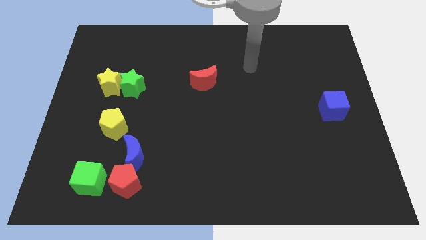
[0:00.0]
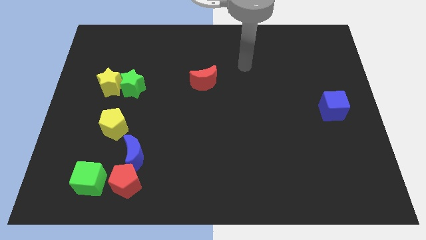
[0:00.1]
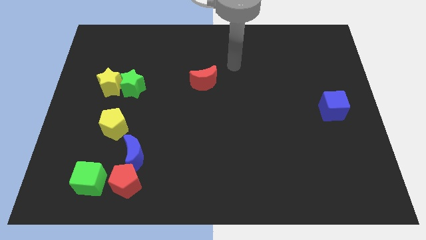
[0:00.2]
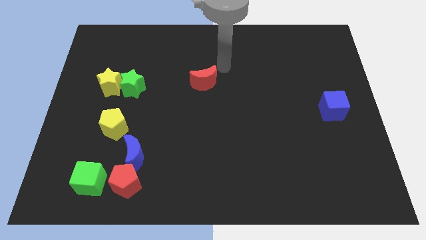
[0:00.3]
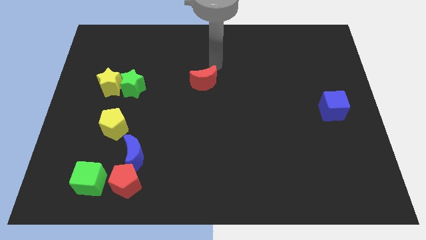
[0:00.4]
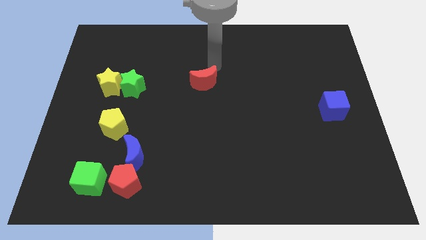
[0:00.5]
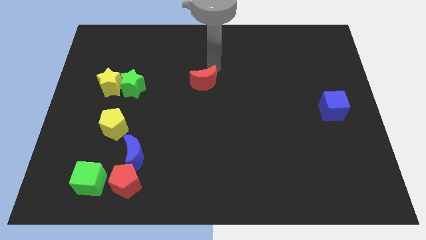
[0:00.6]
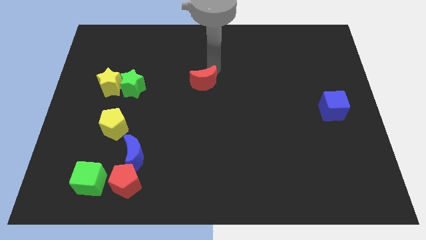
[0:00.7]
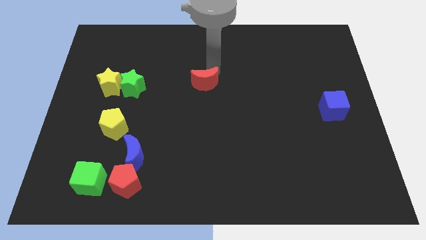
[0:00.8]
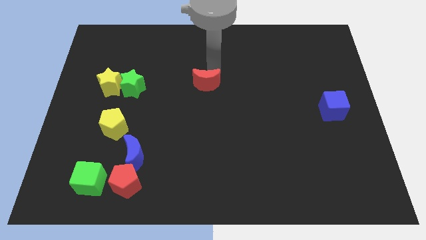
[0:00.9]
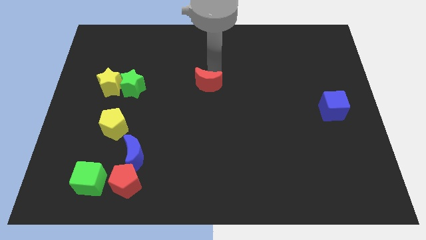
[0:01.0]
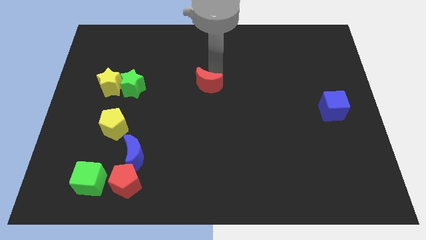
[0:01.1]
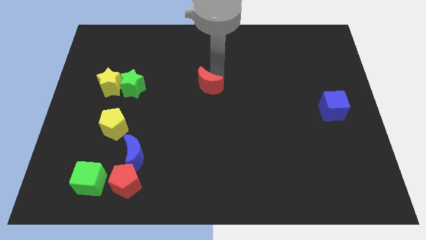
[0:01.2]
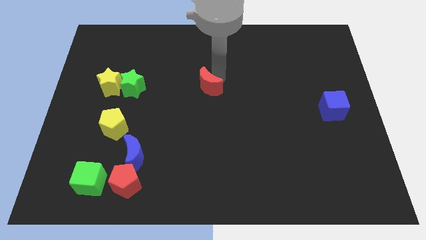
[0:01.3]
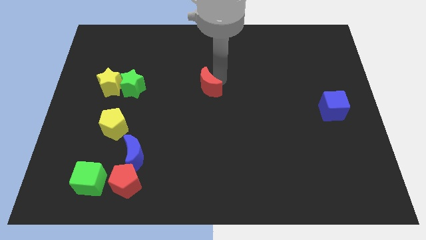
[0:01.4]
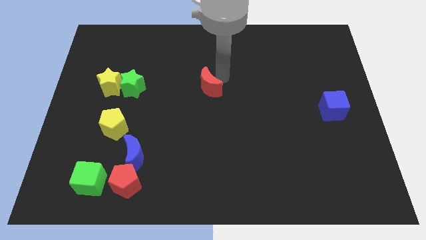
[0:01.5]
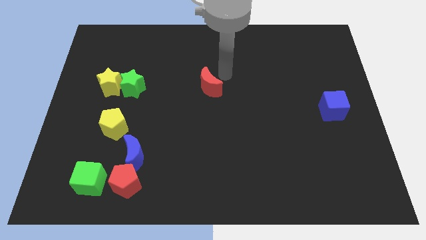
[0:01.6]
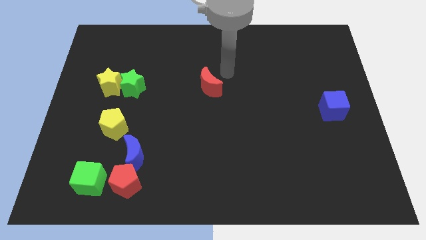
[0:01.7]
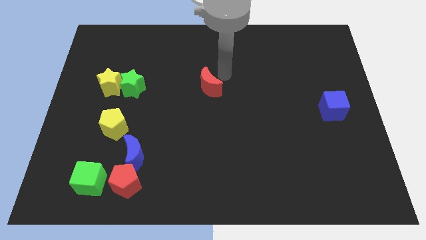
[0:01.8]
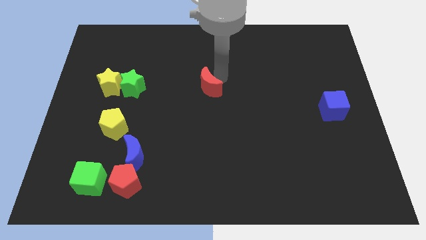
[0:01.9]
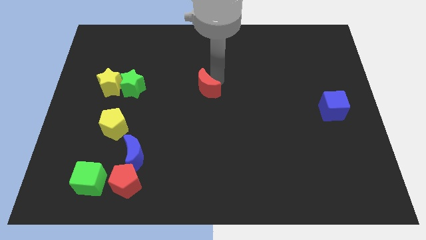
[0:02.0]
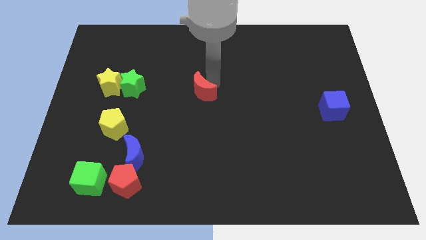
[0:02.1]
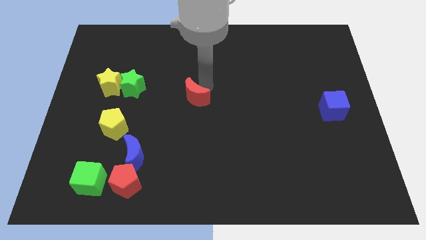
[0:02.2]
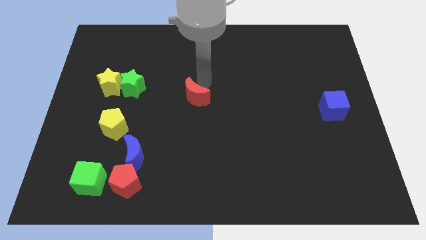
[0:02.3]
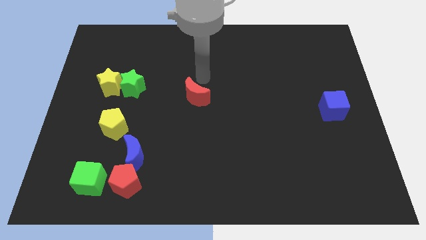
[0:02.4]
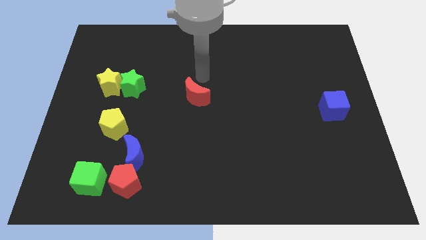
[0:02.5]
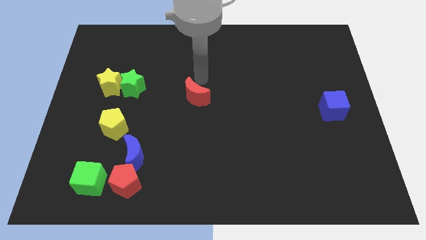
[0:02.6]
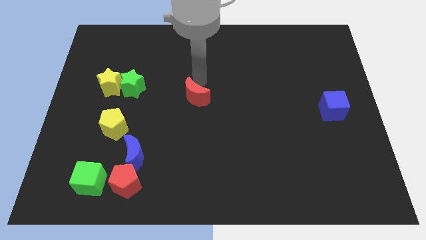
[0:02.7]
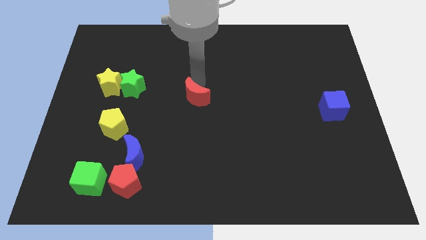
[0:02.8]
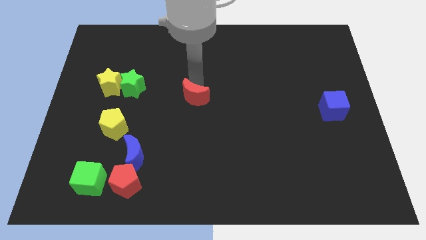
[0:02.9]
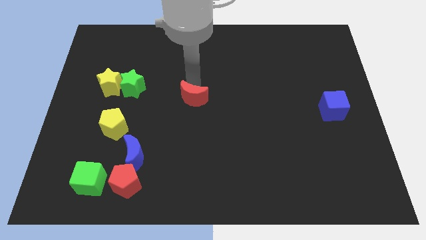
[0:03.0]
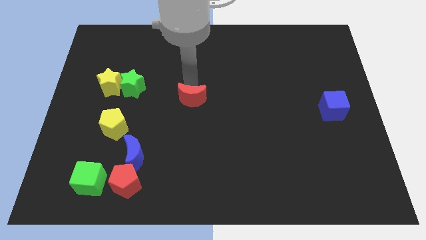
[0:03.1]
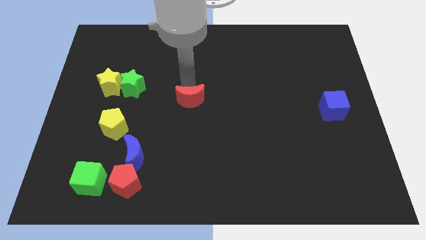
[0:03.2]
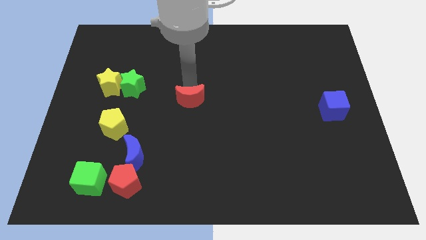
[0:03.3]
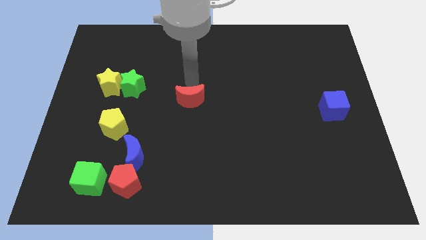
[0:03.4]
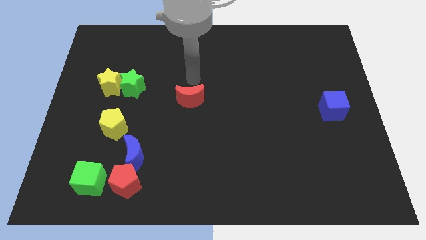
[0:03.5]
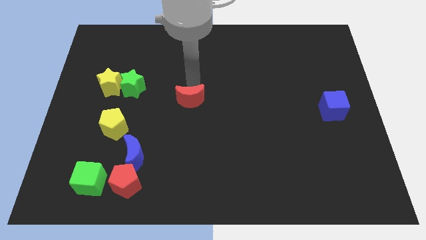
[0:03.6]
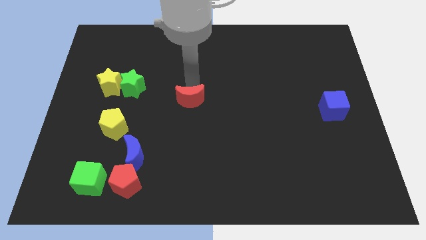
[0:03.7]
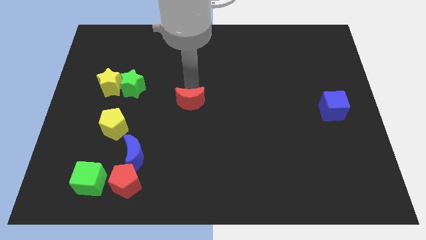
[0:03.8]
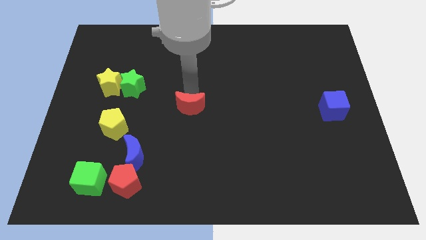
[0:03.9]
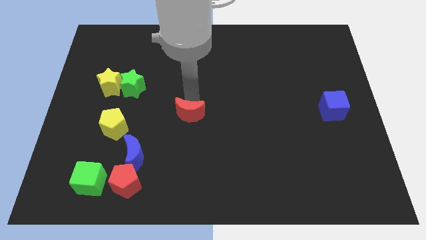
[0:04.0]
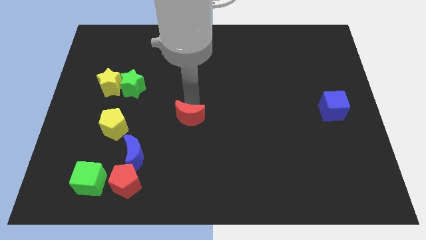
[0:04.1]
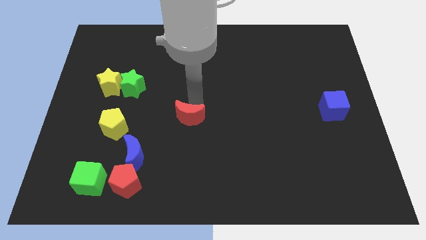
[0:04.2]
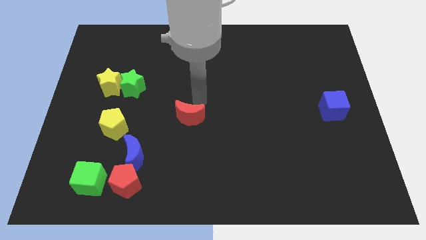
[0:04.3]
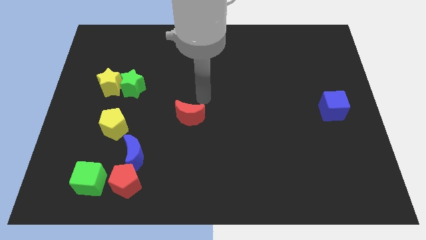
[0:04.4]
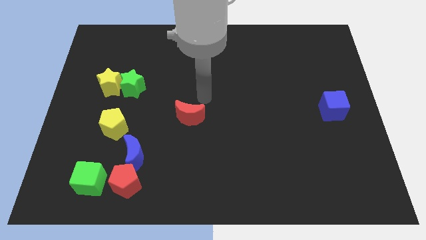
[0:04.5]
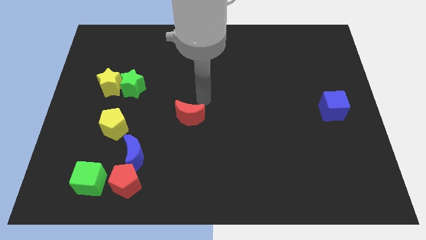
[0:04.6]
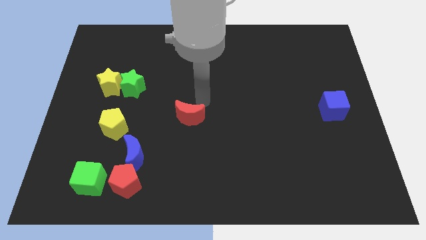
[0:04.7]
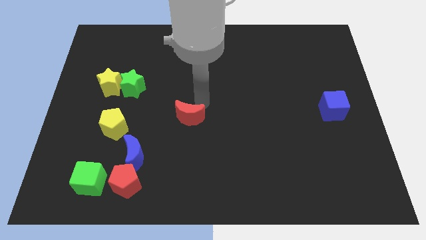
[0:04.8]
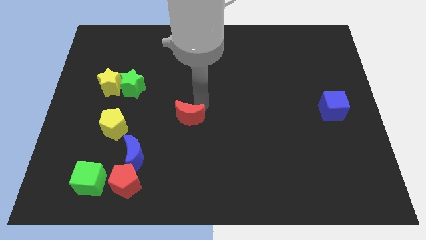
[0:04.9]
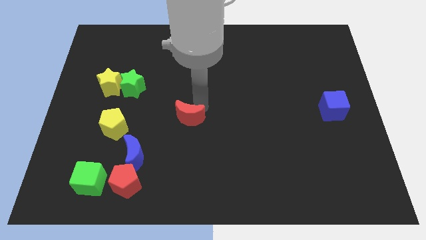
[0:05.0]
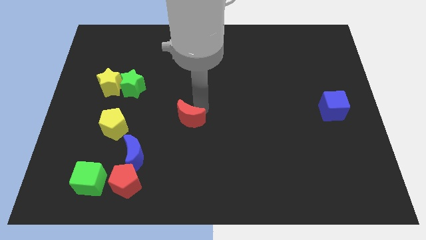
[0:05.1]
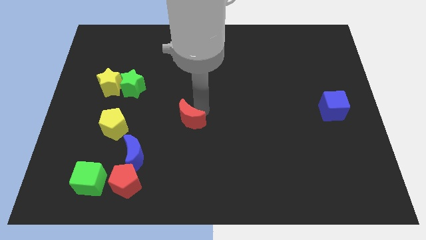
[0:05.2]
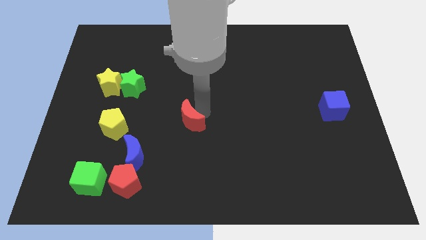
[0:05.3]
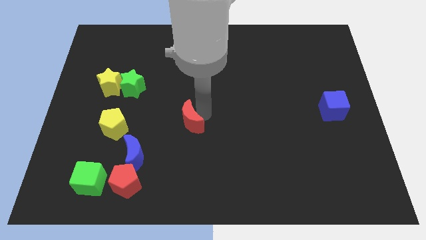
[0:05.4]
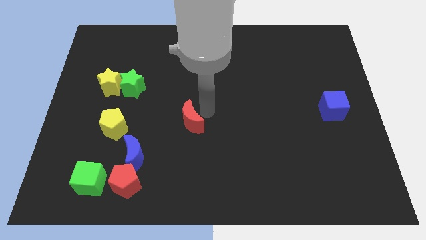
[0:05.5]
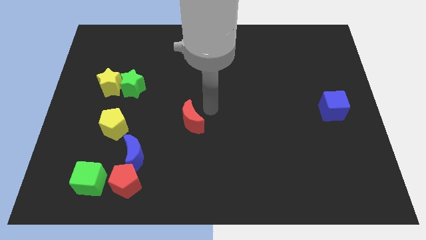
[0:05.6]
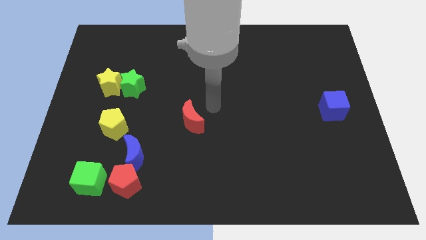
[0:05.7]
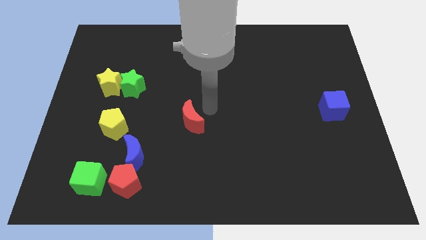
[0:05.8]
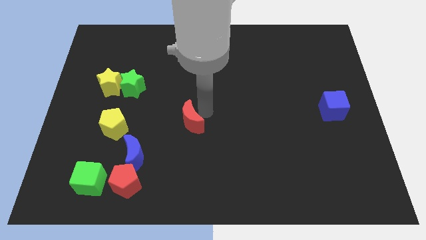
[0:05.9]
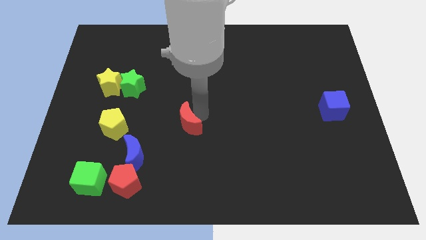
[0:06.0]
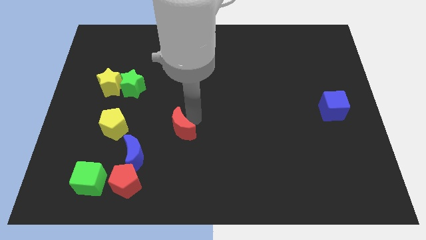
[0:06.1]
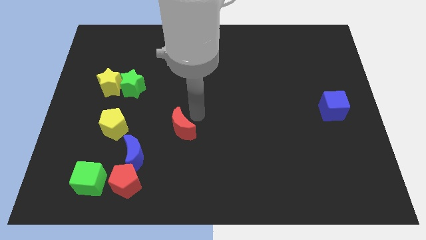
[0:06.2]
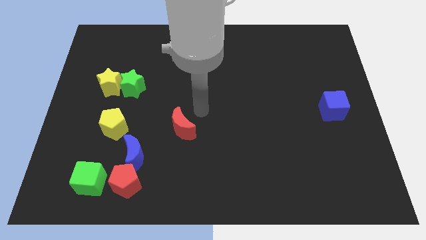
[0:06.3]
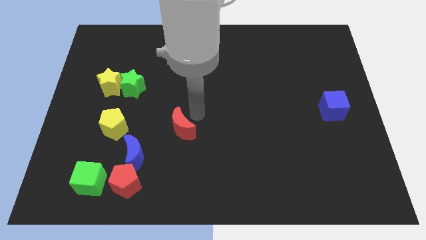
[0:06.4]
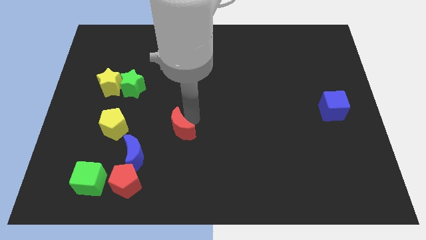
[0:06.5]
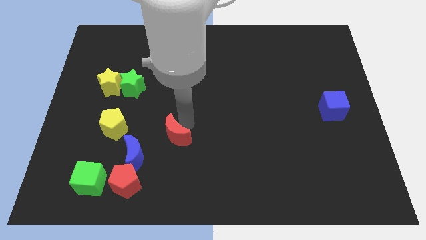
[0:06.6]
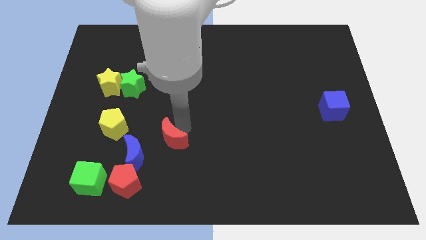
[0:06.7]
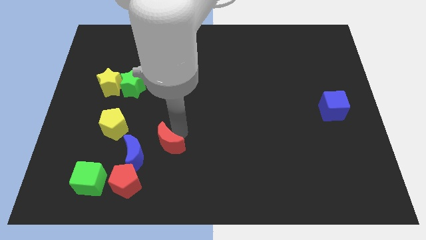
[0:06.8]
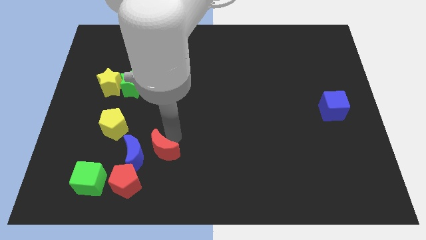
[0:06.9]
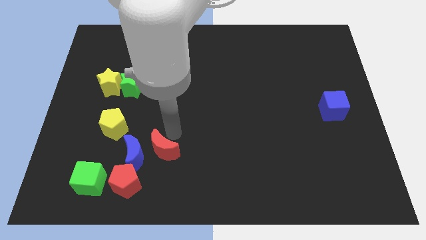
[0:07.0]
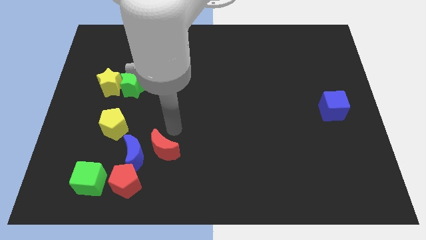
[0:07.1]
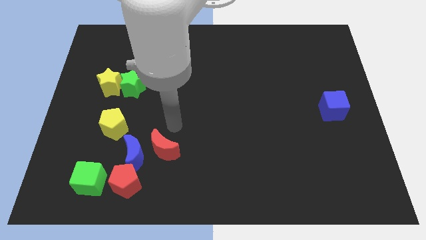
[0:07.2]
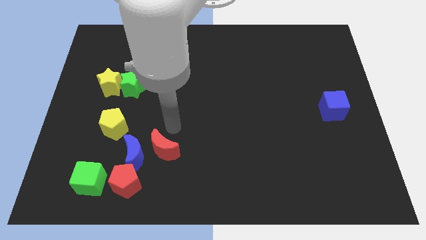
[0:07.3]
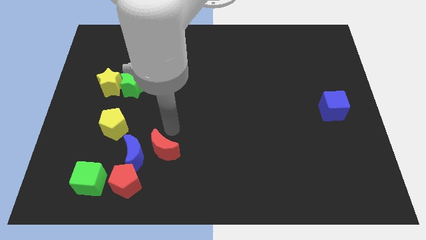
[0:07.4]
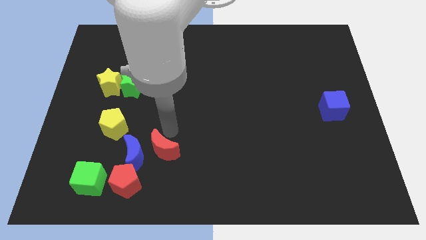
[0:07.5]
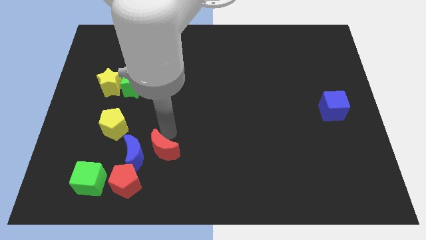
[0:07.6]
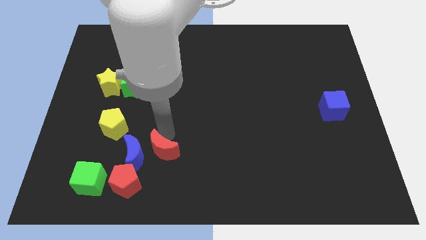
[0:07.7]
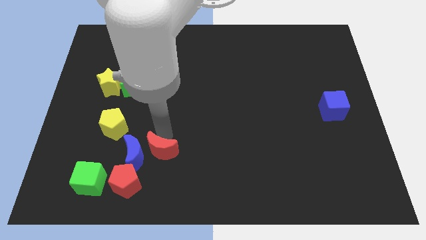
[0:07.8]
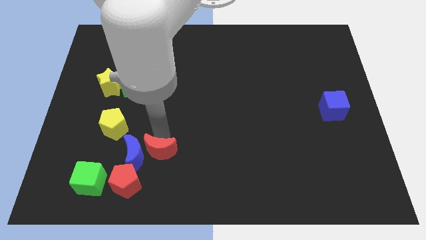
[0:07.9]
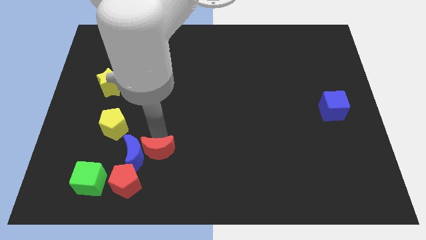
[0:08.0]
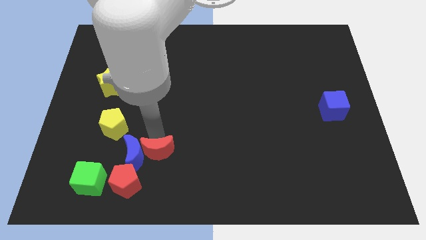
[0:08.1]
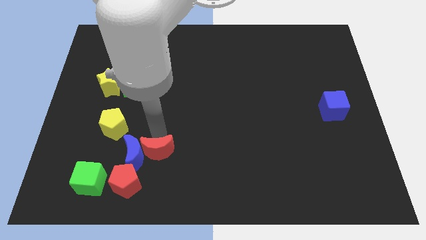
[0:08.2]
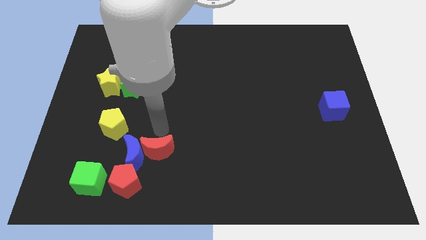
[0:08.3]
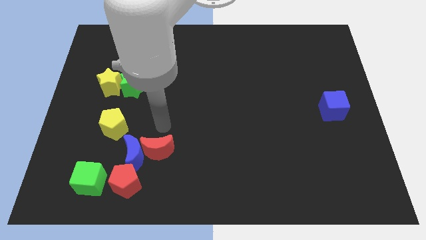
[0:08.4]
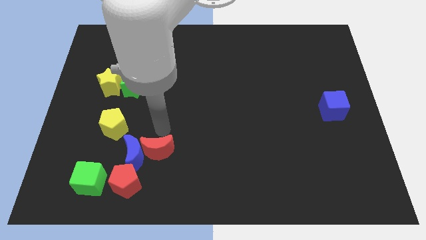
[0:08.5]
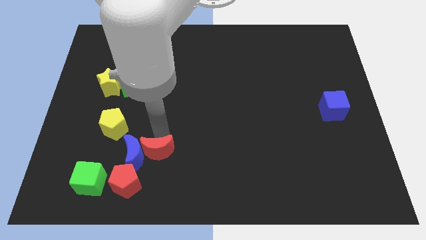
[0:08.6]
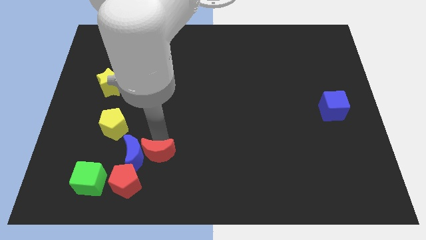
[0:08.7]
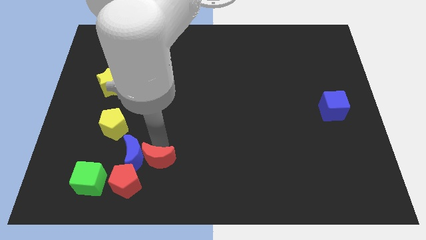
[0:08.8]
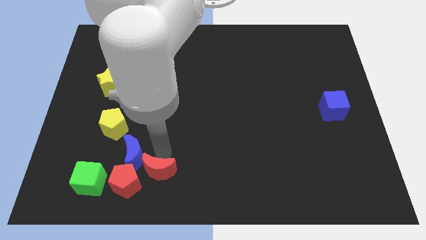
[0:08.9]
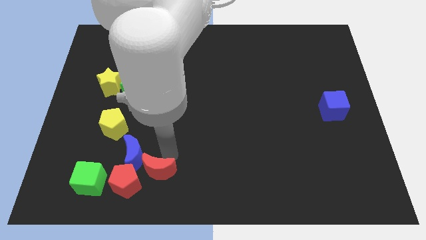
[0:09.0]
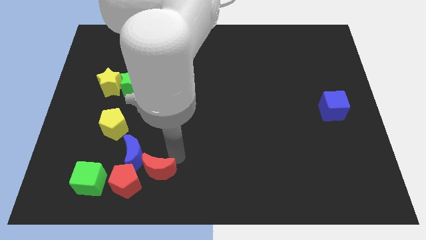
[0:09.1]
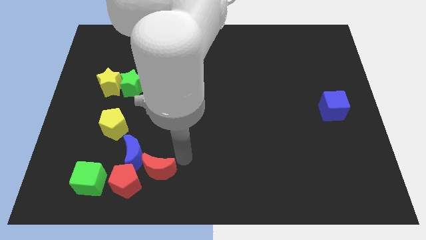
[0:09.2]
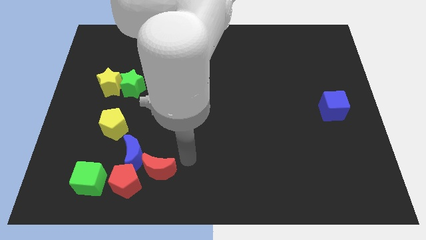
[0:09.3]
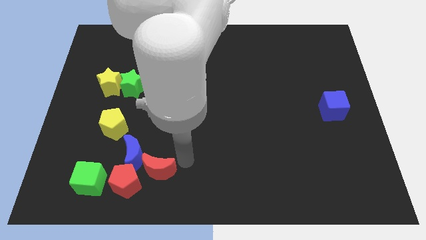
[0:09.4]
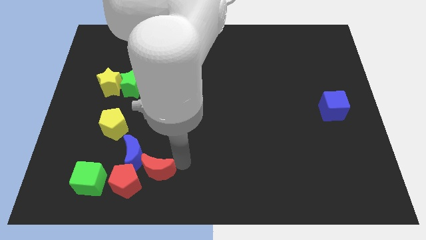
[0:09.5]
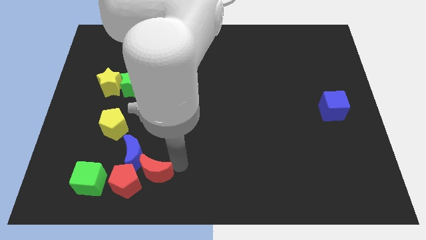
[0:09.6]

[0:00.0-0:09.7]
slide the red moon to the red pentagon
